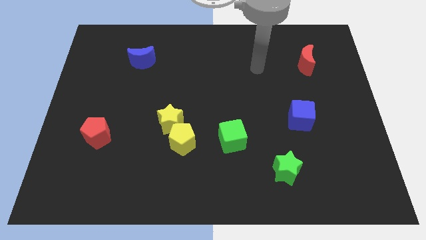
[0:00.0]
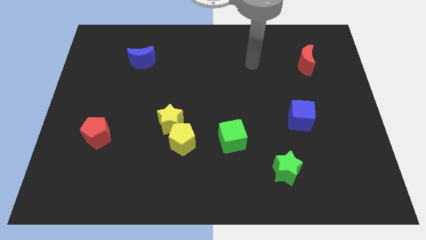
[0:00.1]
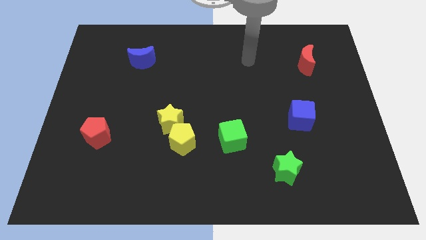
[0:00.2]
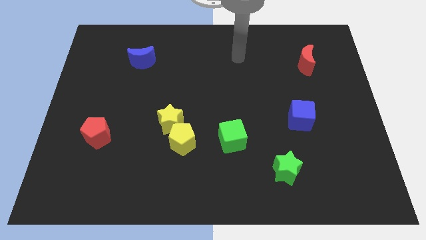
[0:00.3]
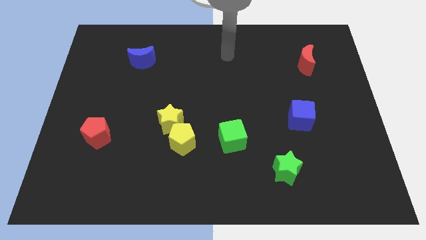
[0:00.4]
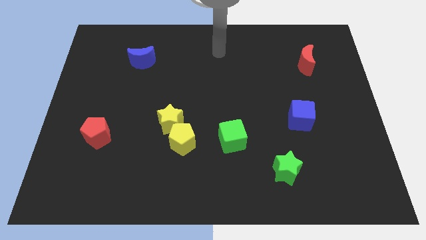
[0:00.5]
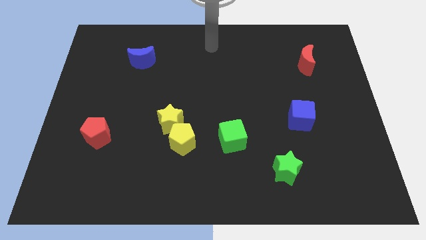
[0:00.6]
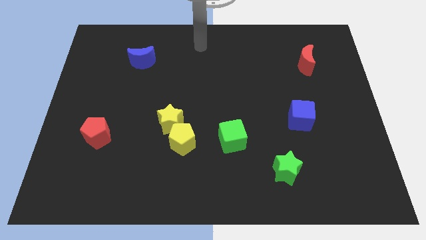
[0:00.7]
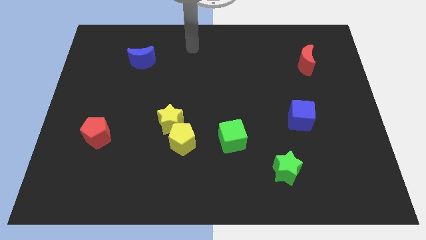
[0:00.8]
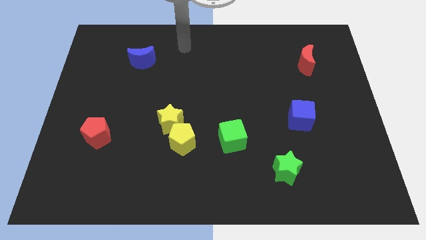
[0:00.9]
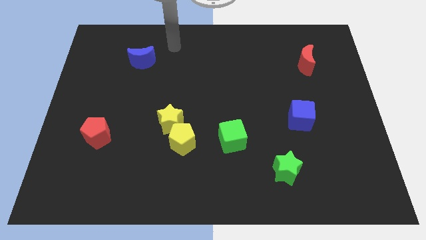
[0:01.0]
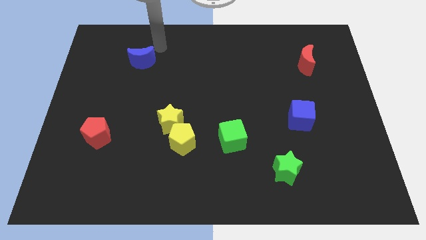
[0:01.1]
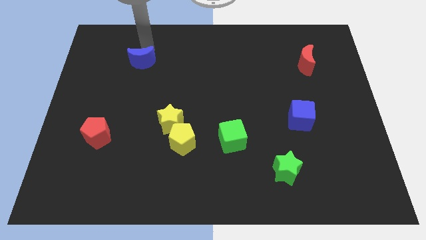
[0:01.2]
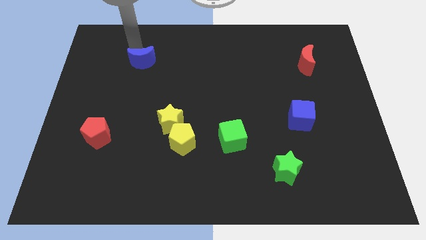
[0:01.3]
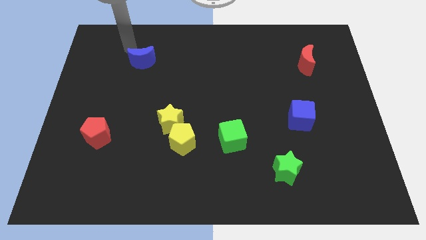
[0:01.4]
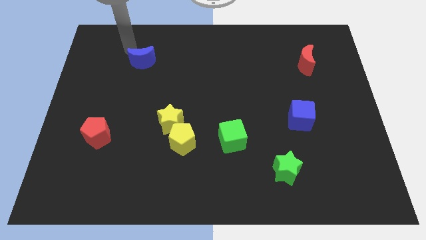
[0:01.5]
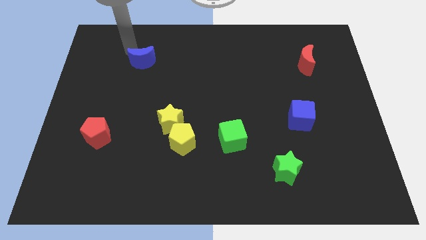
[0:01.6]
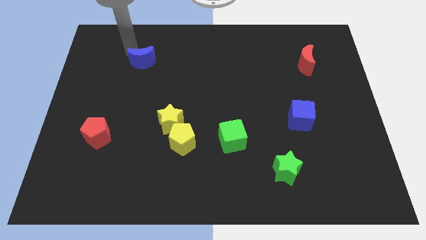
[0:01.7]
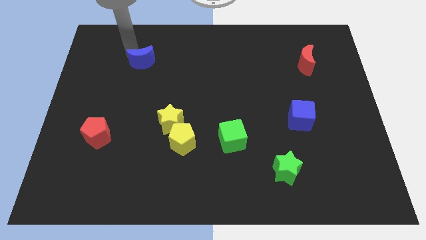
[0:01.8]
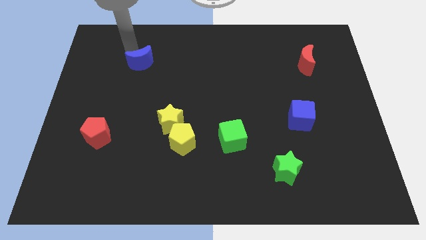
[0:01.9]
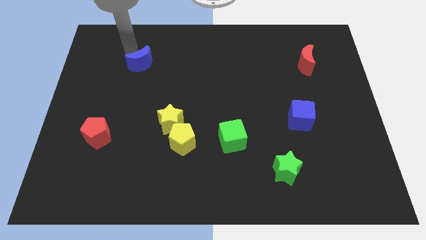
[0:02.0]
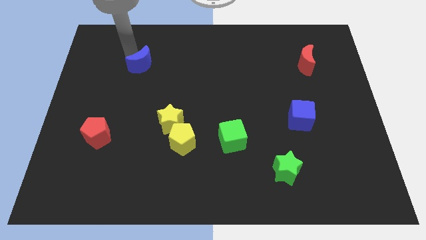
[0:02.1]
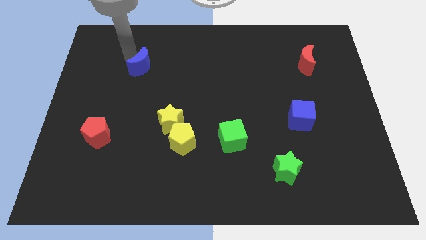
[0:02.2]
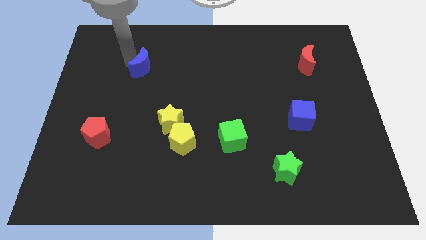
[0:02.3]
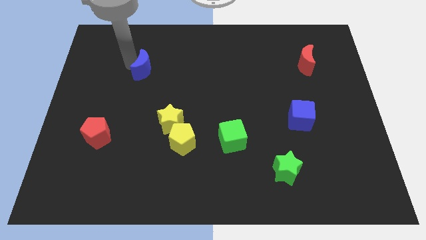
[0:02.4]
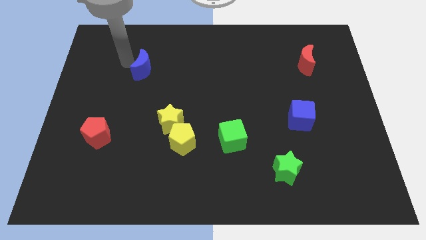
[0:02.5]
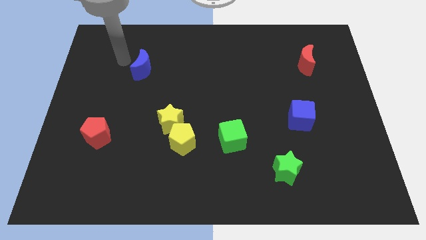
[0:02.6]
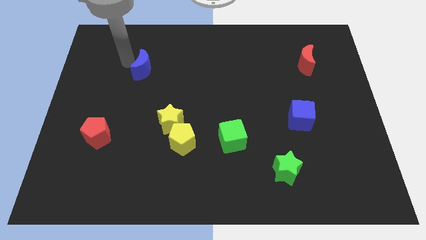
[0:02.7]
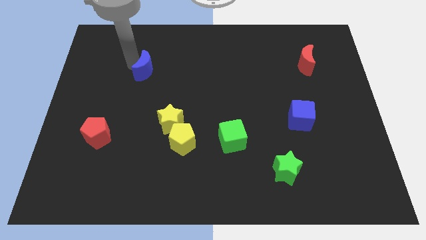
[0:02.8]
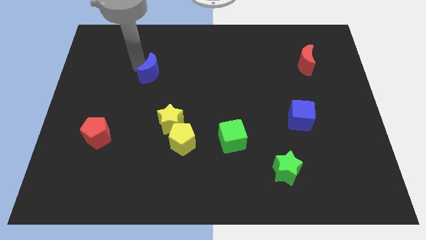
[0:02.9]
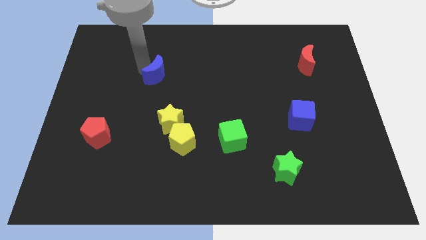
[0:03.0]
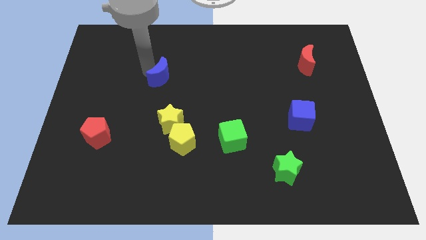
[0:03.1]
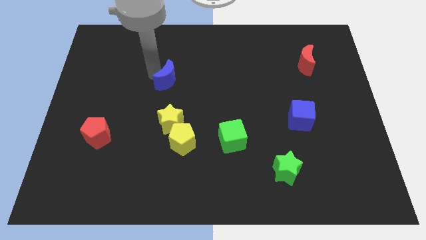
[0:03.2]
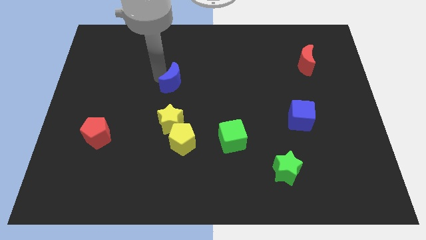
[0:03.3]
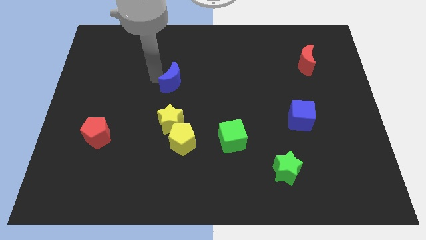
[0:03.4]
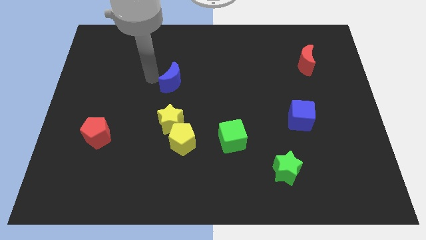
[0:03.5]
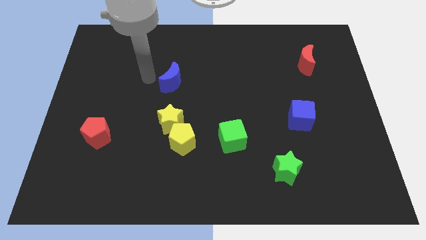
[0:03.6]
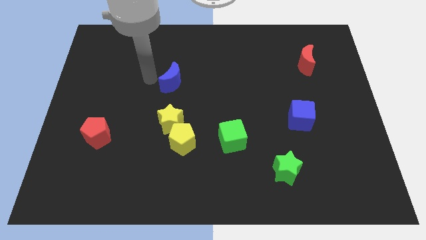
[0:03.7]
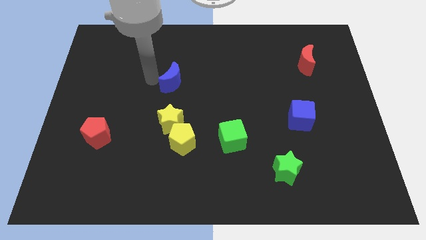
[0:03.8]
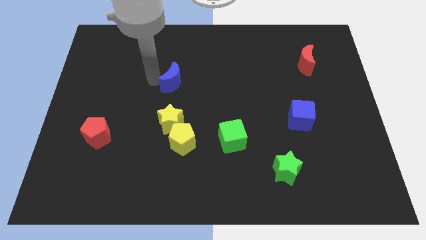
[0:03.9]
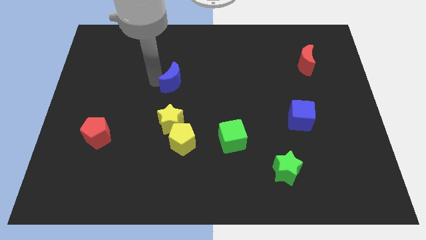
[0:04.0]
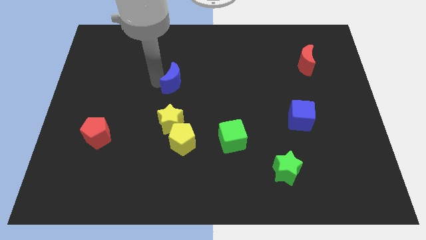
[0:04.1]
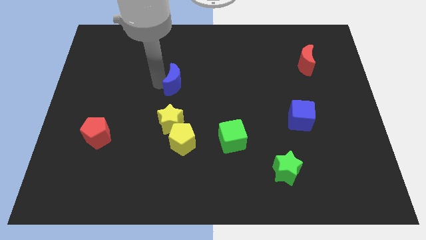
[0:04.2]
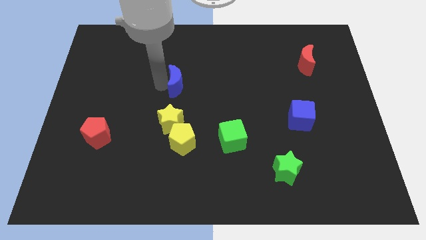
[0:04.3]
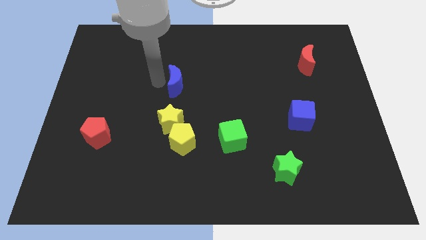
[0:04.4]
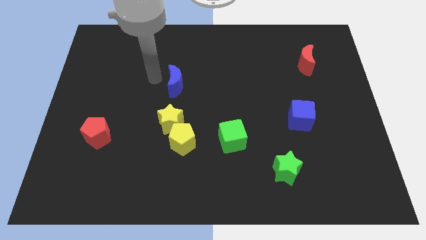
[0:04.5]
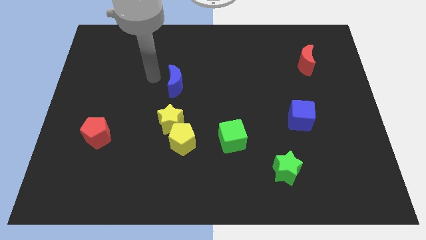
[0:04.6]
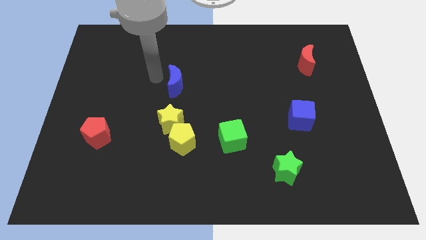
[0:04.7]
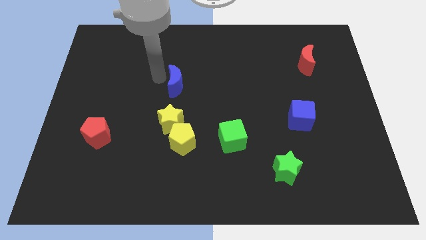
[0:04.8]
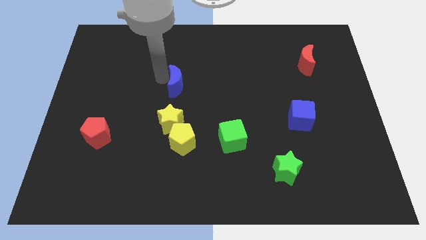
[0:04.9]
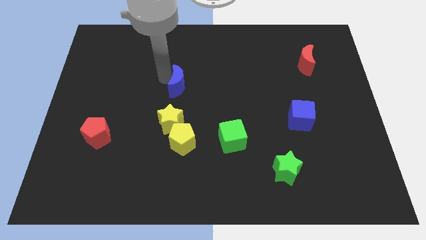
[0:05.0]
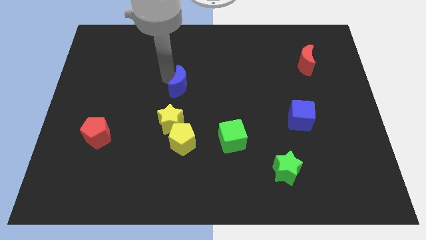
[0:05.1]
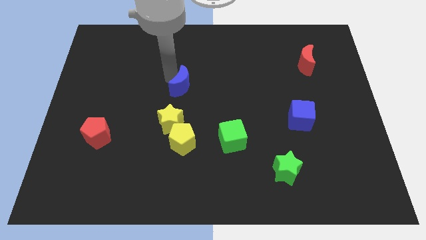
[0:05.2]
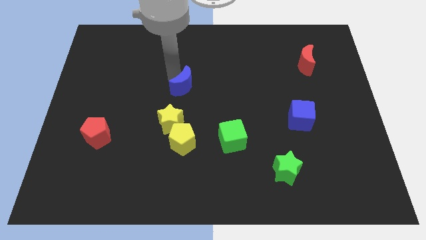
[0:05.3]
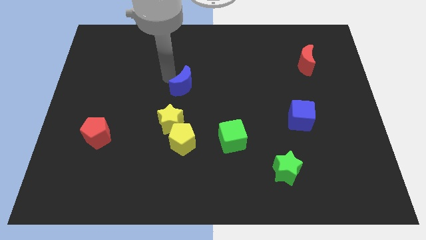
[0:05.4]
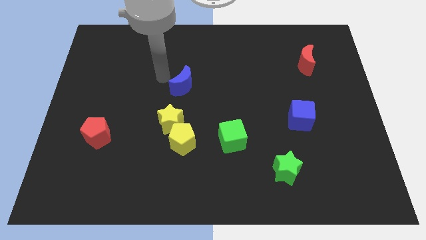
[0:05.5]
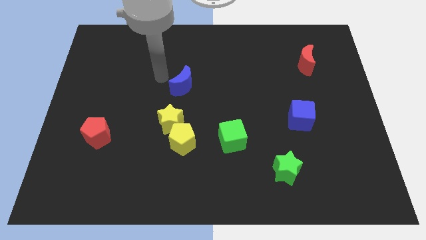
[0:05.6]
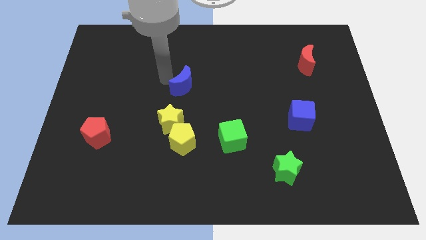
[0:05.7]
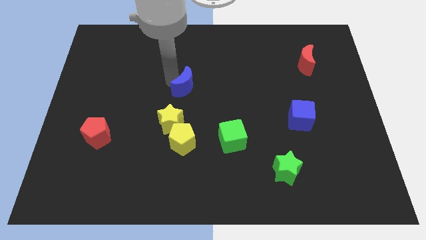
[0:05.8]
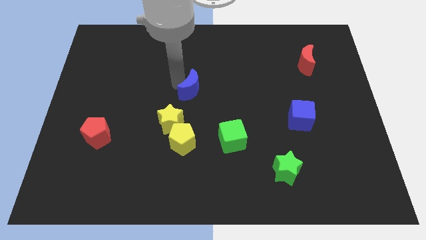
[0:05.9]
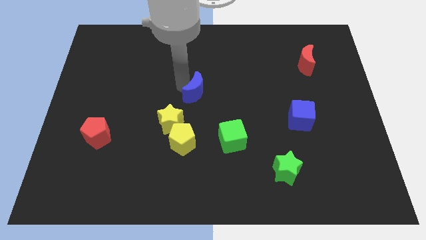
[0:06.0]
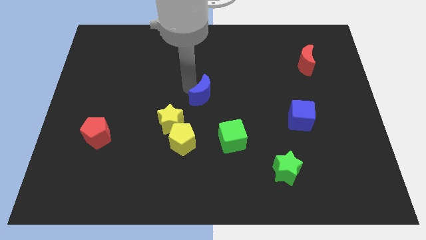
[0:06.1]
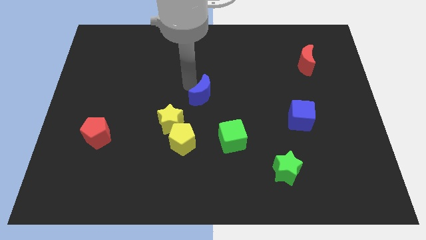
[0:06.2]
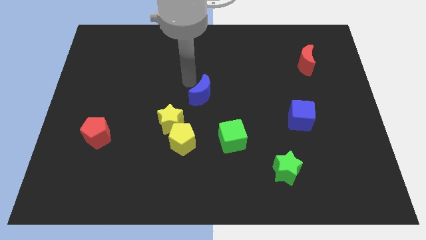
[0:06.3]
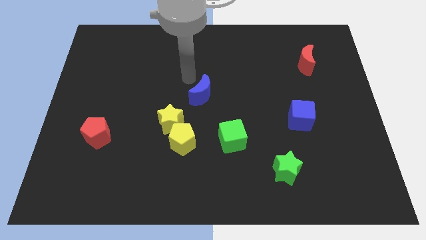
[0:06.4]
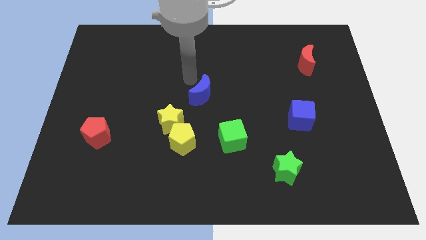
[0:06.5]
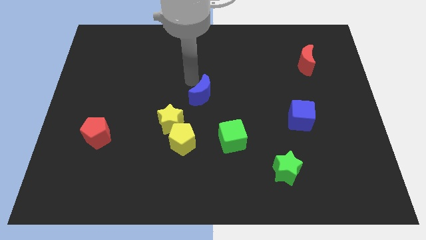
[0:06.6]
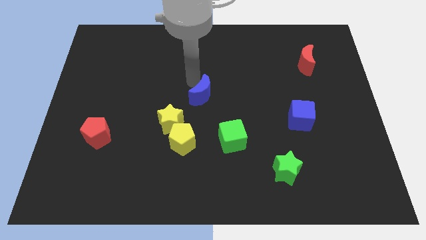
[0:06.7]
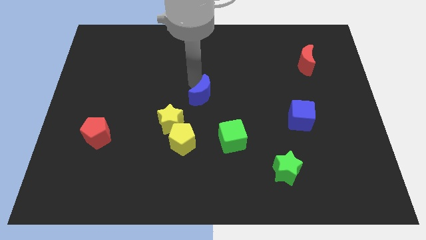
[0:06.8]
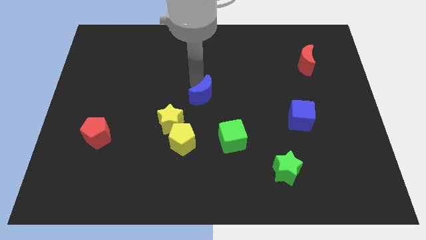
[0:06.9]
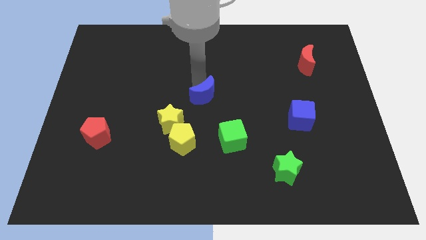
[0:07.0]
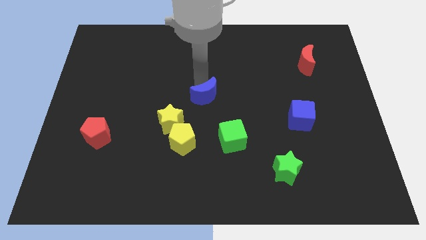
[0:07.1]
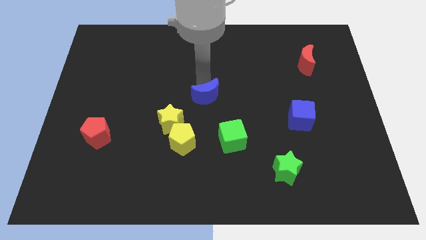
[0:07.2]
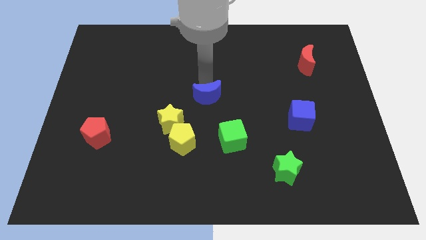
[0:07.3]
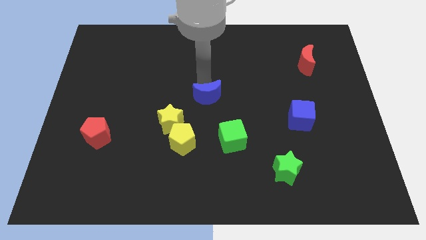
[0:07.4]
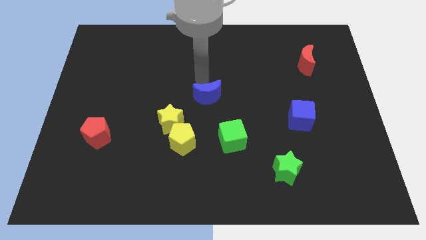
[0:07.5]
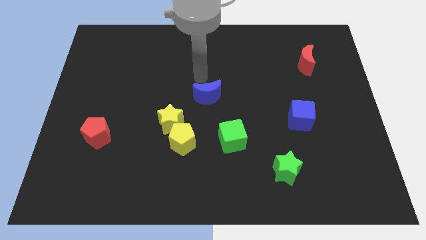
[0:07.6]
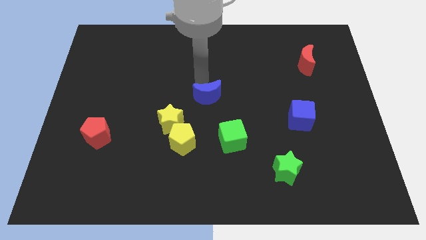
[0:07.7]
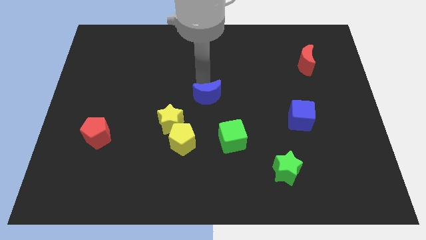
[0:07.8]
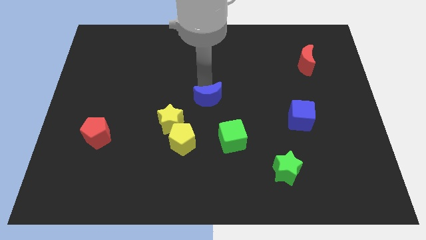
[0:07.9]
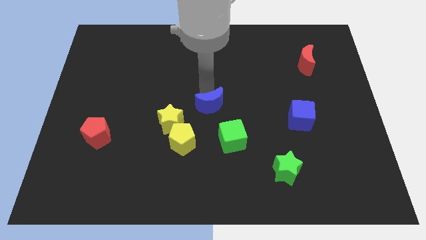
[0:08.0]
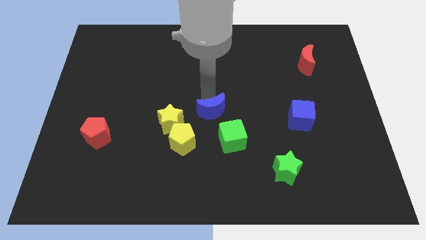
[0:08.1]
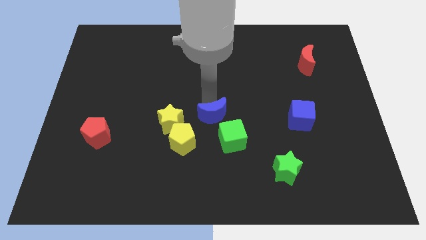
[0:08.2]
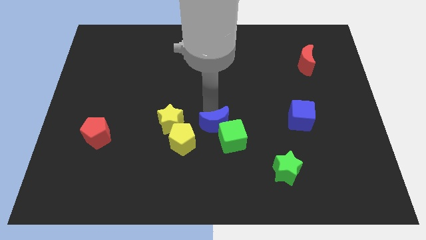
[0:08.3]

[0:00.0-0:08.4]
move the blue moon to the green cube
